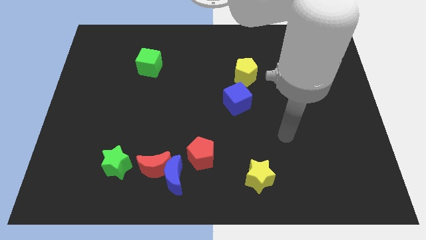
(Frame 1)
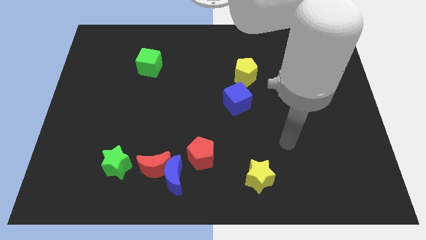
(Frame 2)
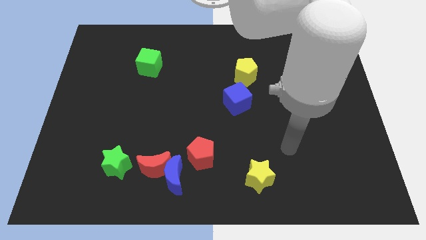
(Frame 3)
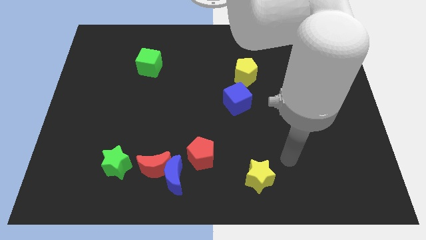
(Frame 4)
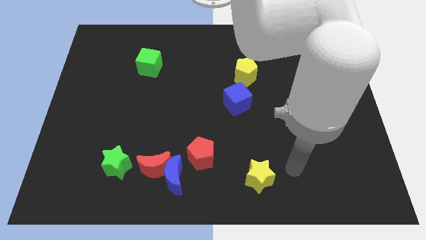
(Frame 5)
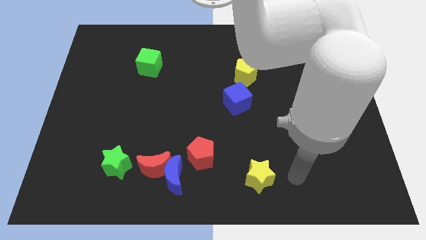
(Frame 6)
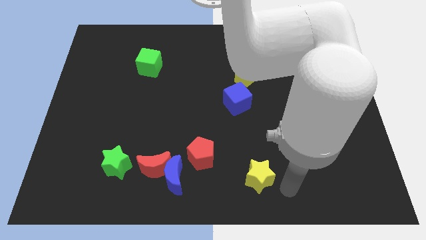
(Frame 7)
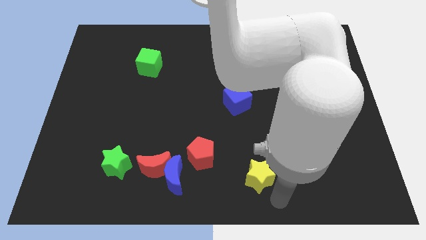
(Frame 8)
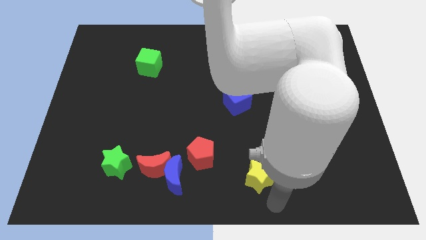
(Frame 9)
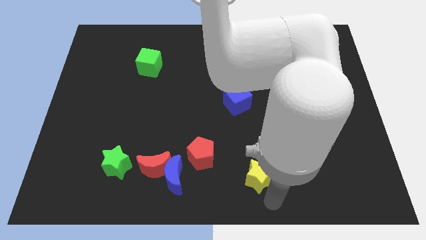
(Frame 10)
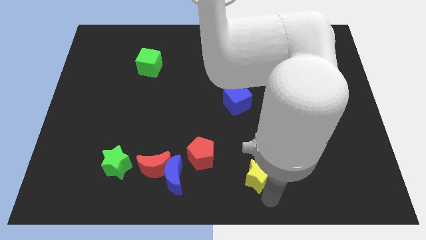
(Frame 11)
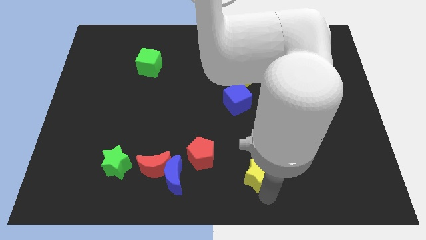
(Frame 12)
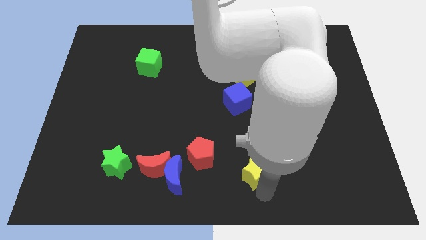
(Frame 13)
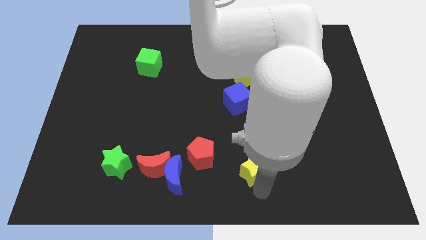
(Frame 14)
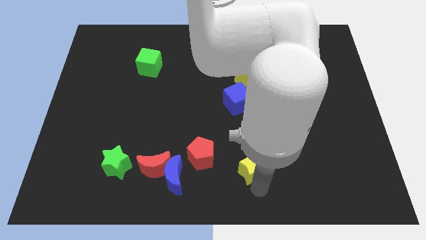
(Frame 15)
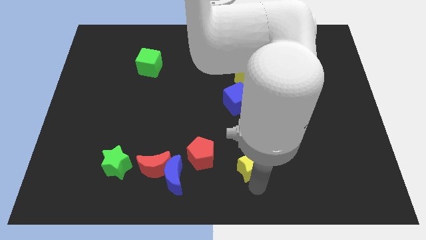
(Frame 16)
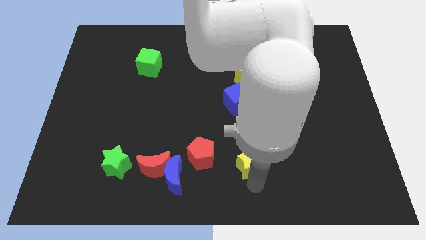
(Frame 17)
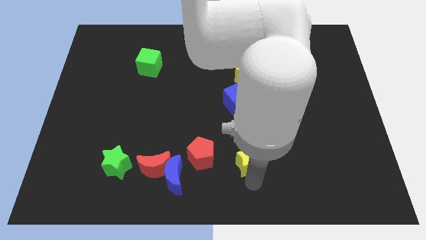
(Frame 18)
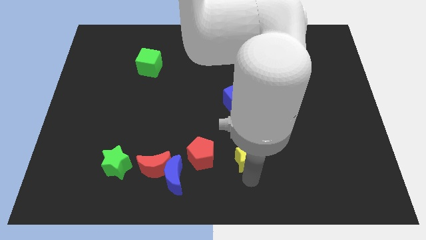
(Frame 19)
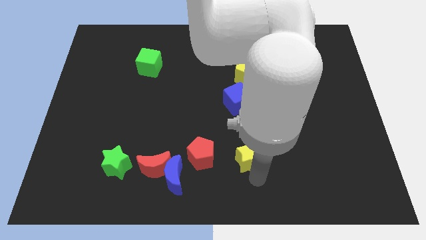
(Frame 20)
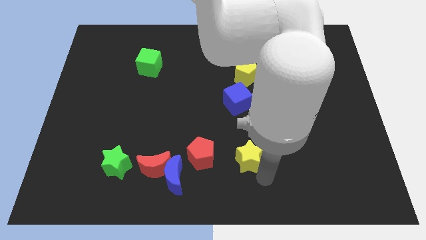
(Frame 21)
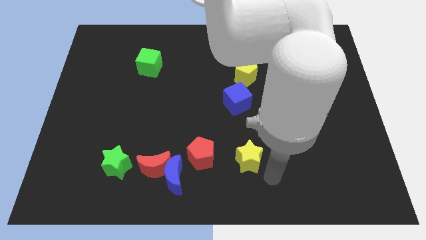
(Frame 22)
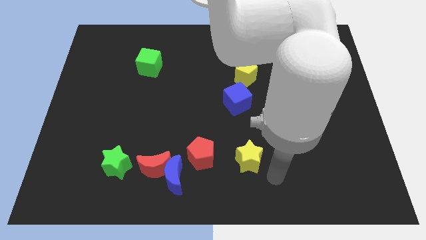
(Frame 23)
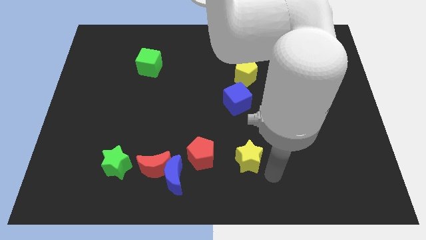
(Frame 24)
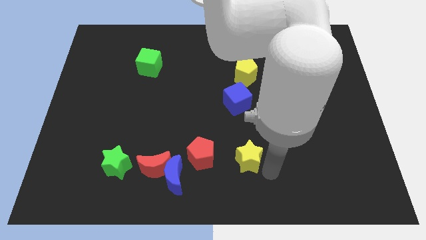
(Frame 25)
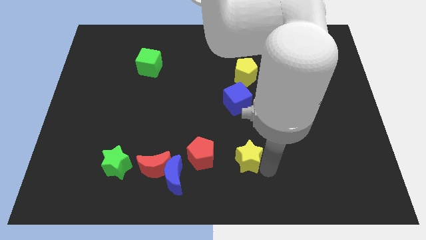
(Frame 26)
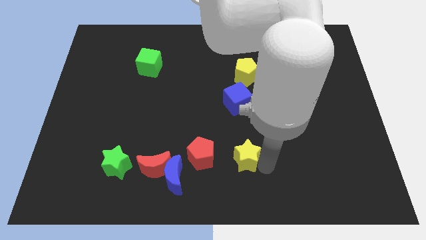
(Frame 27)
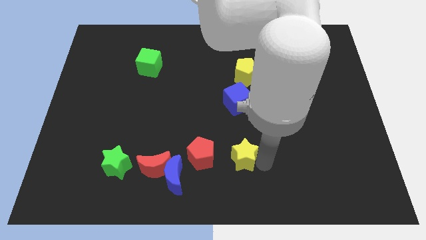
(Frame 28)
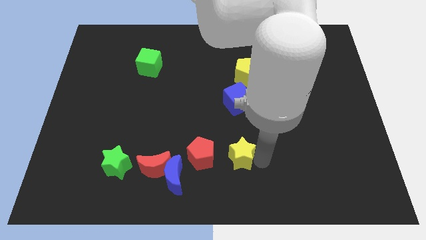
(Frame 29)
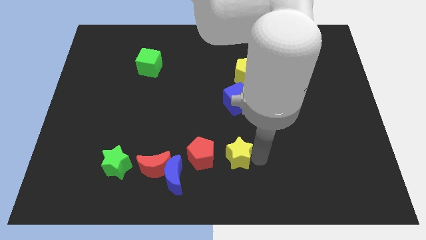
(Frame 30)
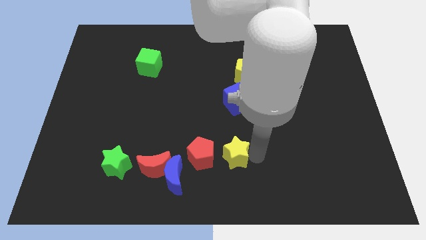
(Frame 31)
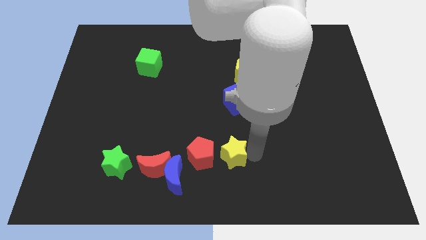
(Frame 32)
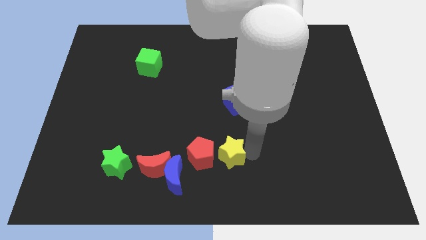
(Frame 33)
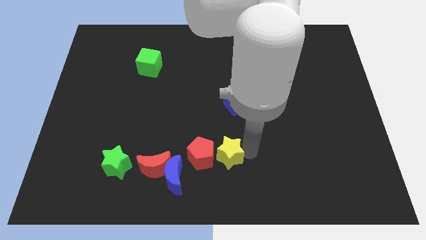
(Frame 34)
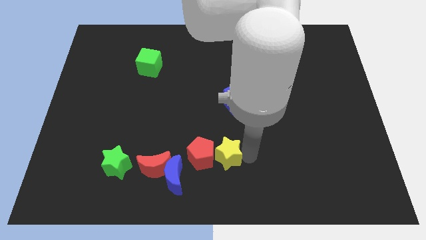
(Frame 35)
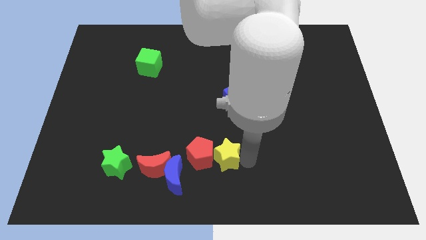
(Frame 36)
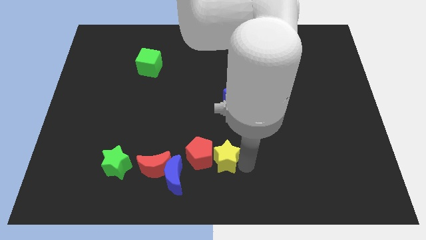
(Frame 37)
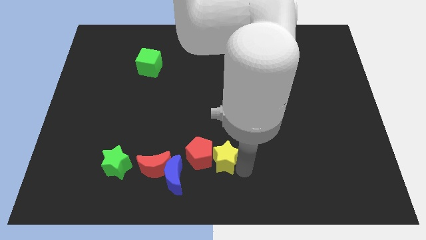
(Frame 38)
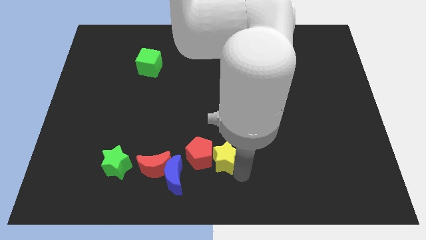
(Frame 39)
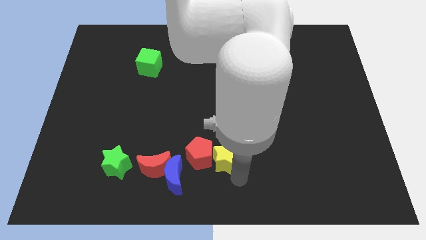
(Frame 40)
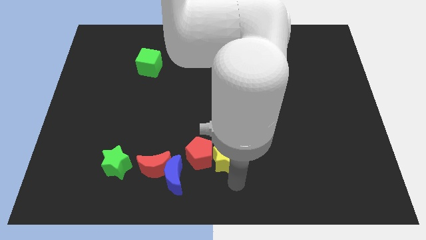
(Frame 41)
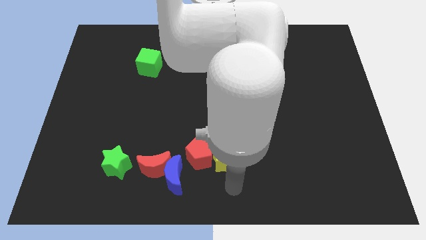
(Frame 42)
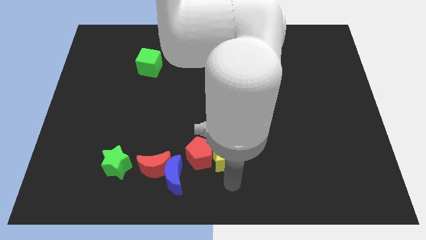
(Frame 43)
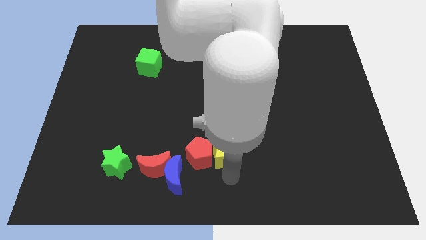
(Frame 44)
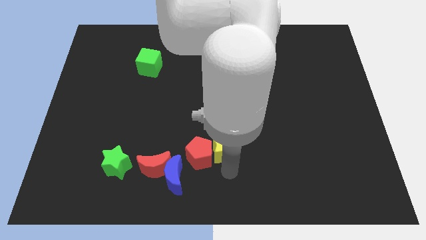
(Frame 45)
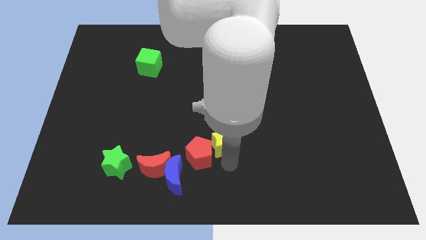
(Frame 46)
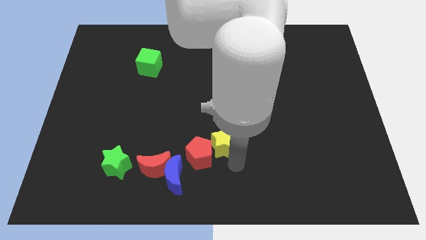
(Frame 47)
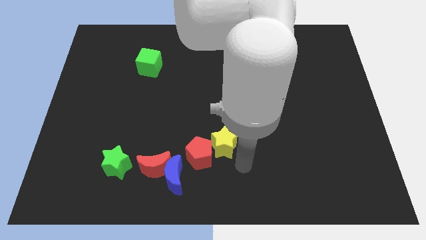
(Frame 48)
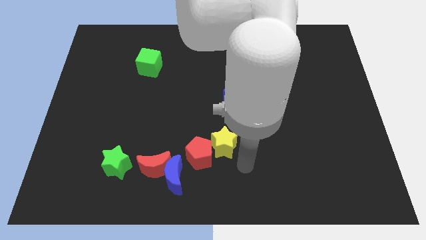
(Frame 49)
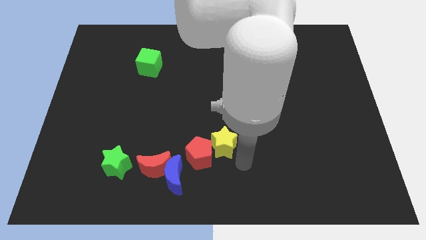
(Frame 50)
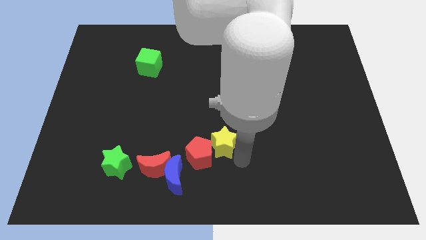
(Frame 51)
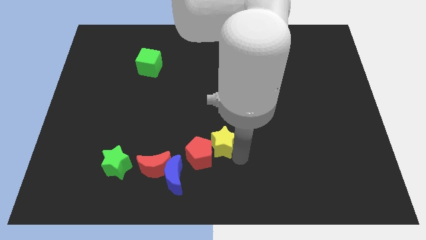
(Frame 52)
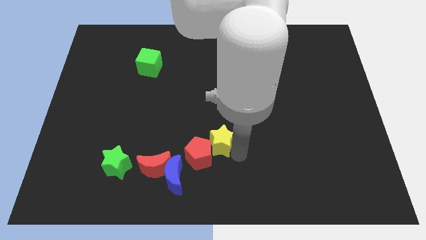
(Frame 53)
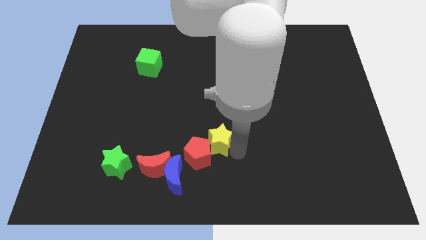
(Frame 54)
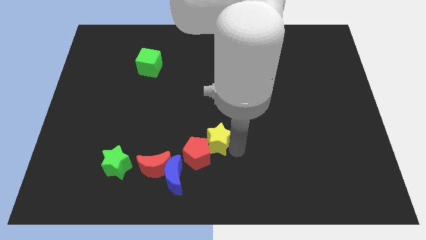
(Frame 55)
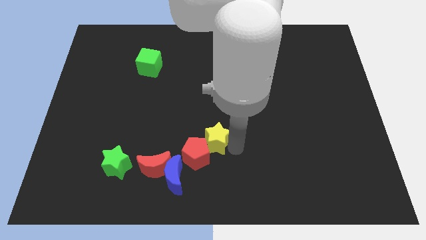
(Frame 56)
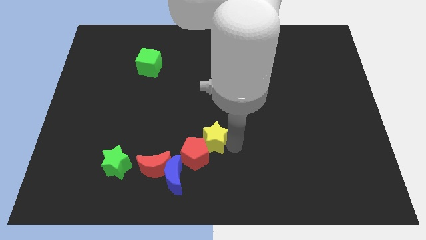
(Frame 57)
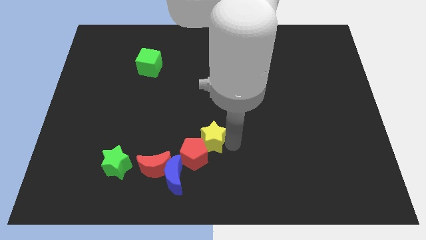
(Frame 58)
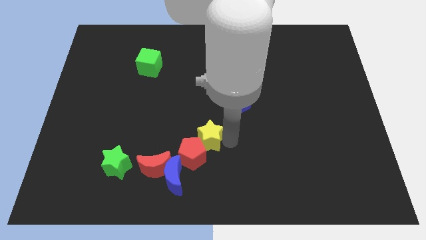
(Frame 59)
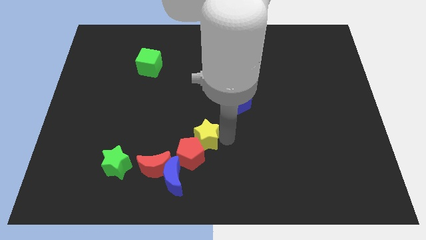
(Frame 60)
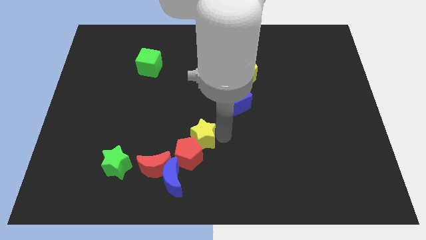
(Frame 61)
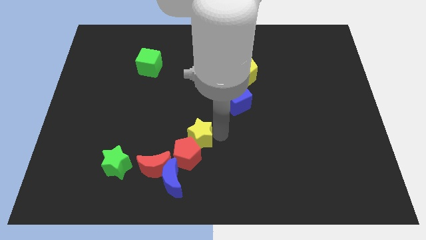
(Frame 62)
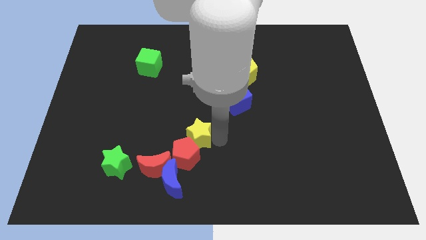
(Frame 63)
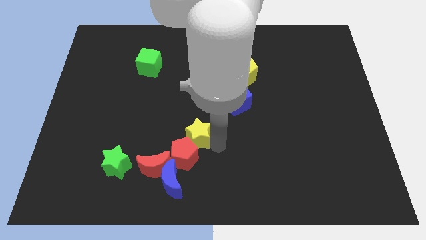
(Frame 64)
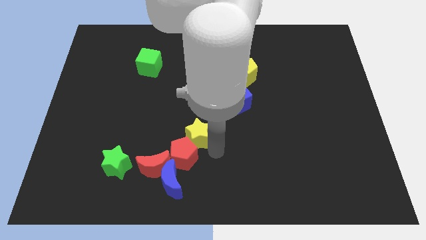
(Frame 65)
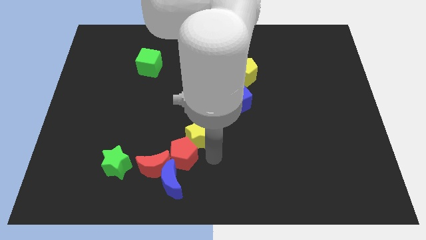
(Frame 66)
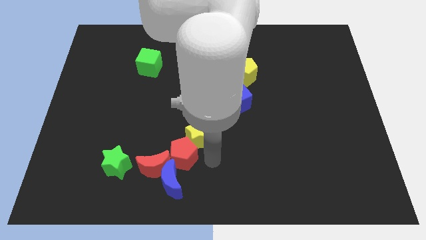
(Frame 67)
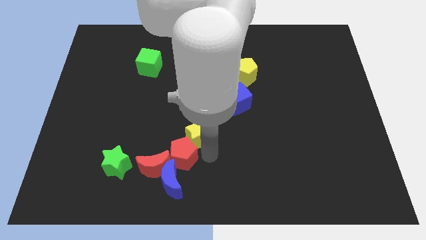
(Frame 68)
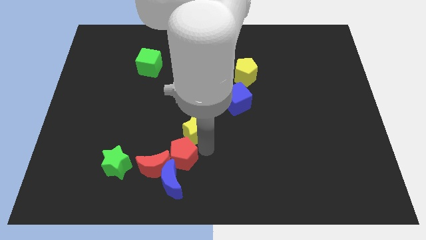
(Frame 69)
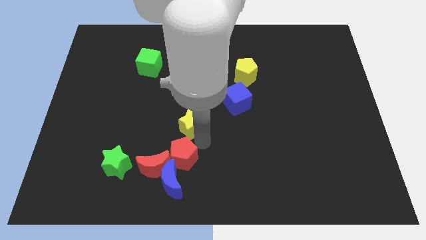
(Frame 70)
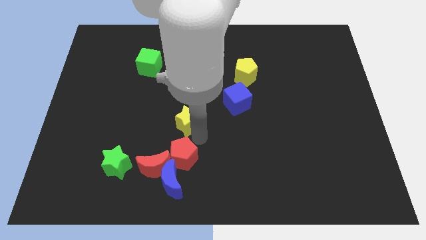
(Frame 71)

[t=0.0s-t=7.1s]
move the yellow star up and then to the left

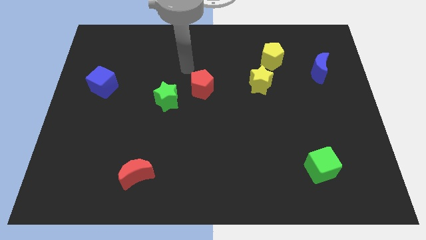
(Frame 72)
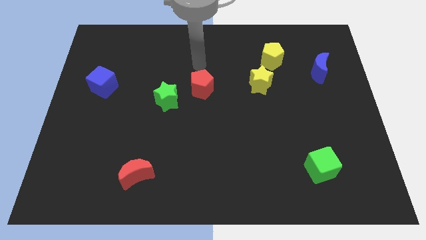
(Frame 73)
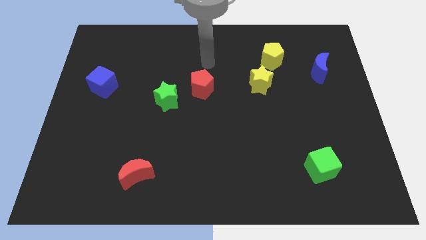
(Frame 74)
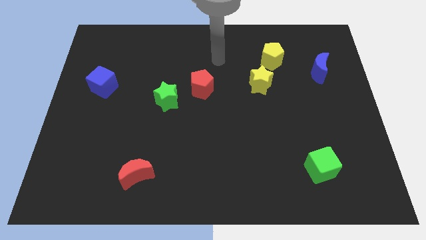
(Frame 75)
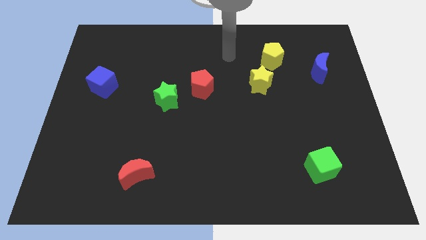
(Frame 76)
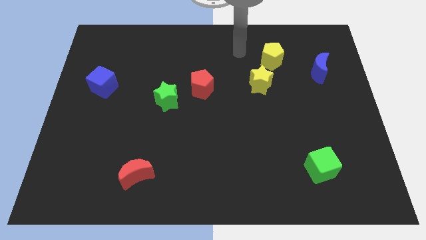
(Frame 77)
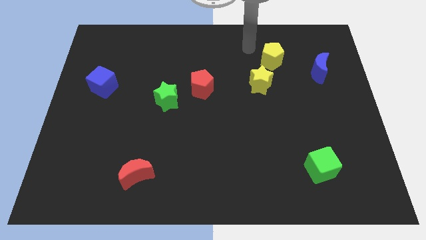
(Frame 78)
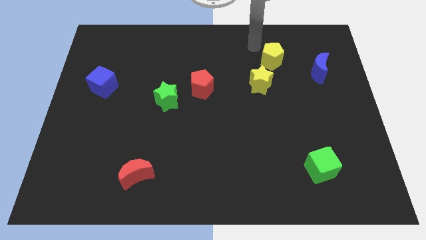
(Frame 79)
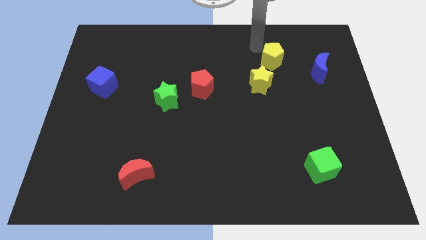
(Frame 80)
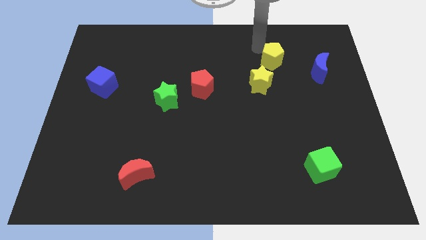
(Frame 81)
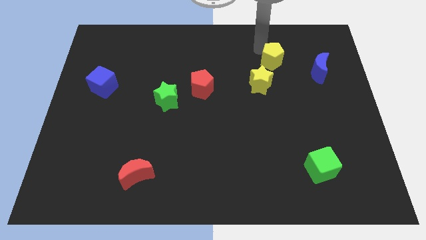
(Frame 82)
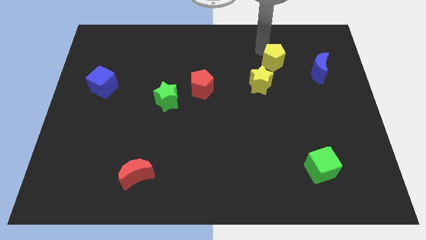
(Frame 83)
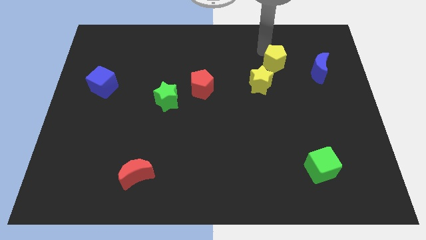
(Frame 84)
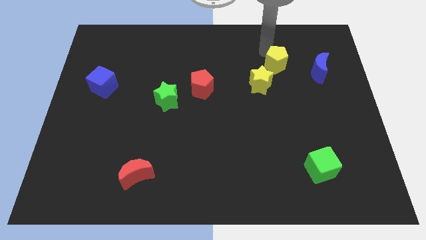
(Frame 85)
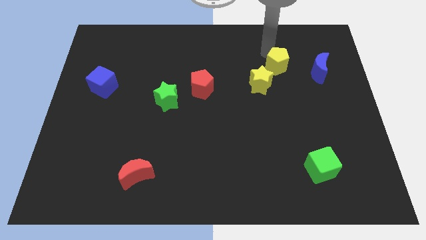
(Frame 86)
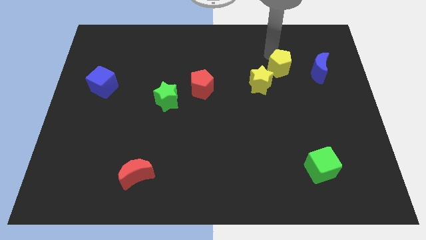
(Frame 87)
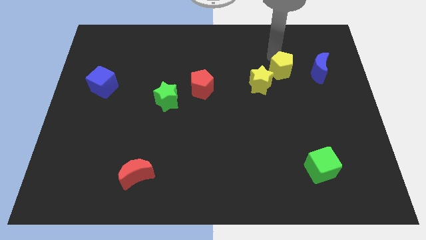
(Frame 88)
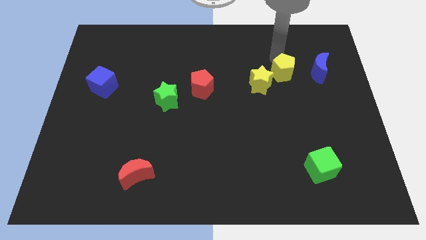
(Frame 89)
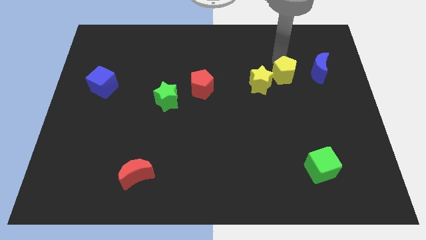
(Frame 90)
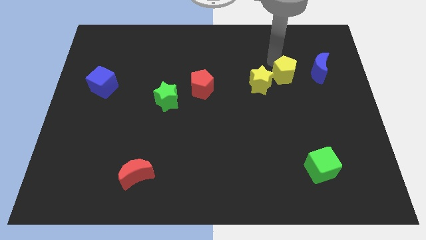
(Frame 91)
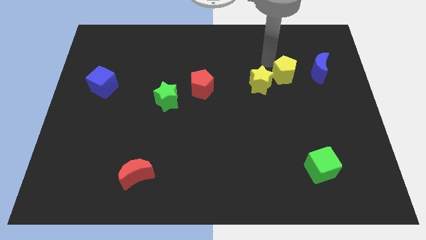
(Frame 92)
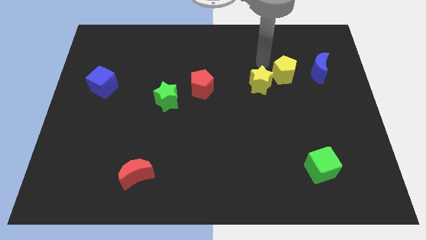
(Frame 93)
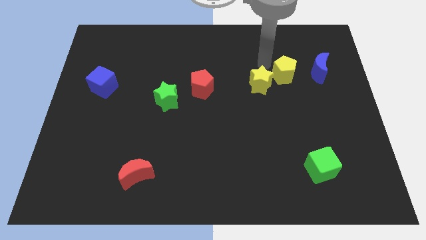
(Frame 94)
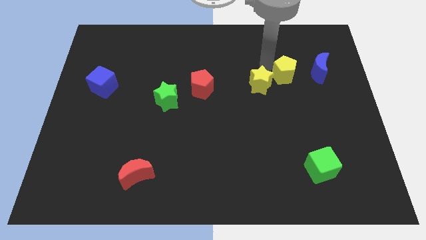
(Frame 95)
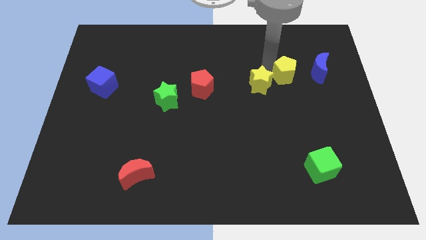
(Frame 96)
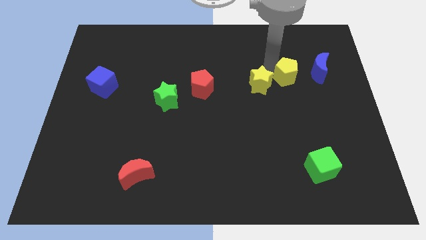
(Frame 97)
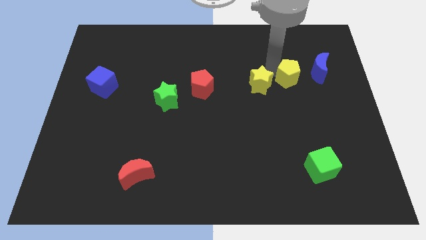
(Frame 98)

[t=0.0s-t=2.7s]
move the yellow pentagon down and then to the right somewhat
